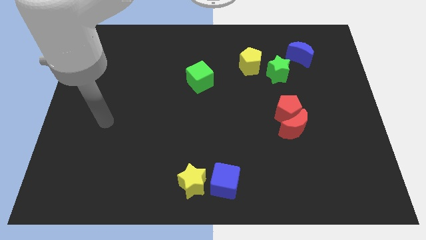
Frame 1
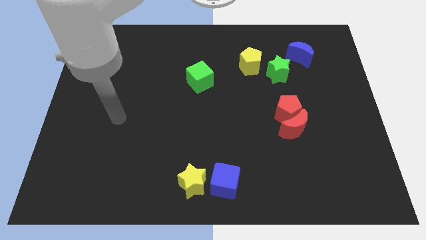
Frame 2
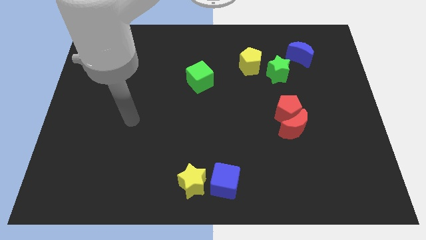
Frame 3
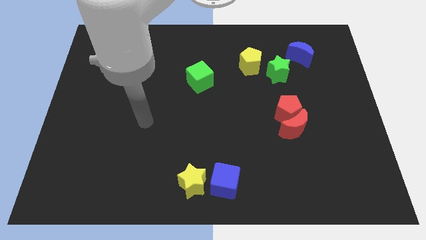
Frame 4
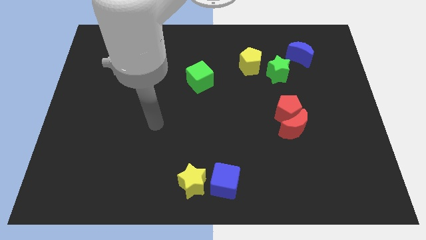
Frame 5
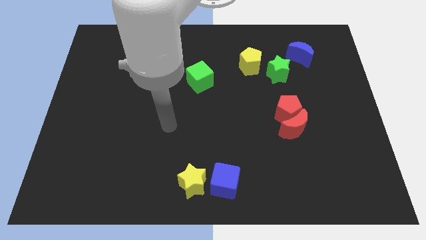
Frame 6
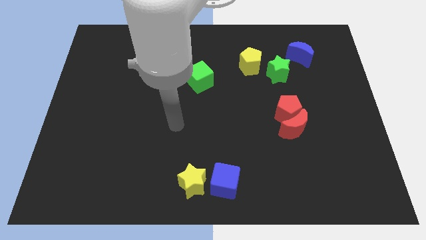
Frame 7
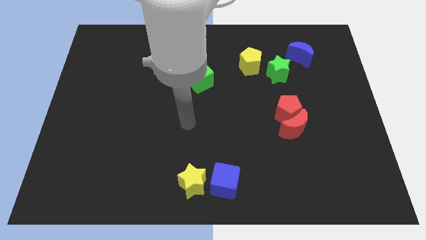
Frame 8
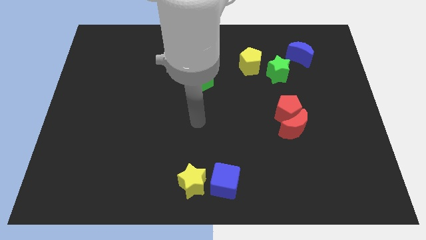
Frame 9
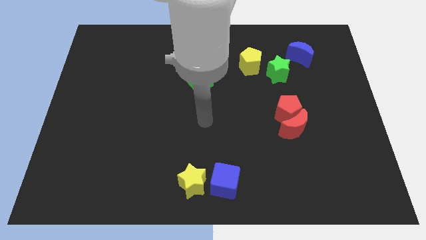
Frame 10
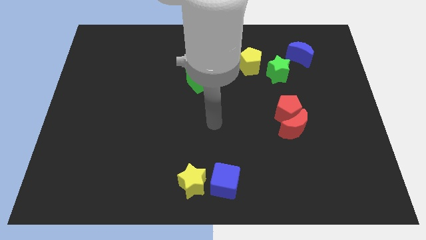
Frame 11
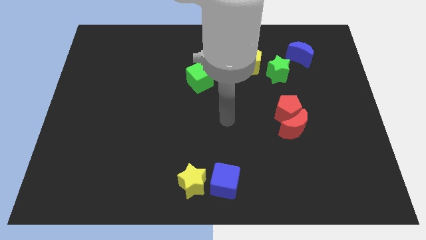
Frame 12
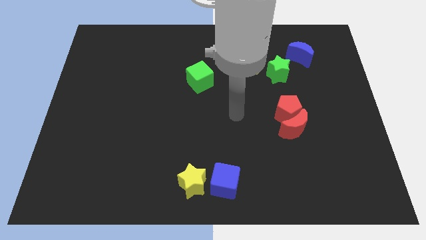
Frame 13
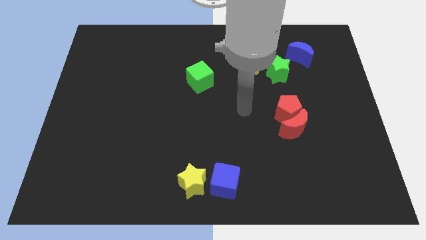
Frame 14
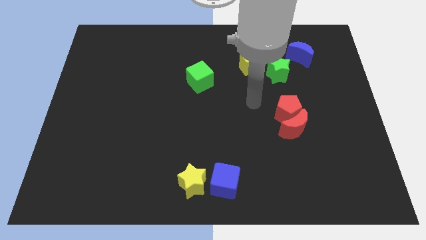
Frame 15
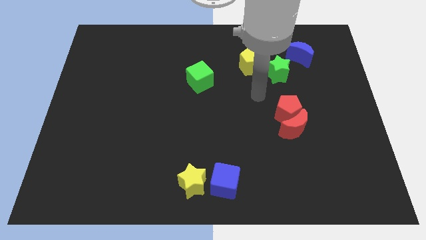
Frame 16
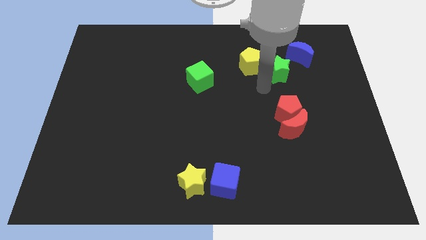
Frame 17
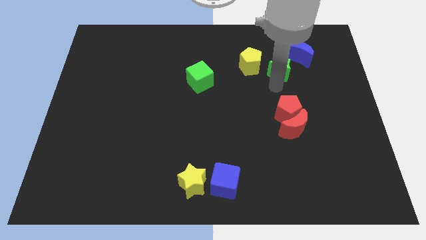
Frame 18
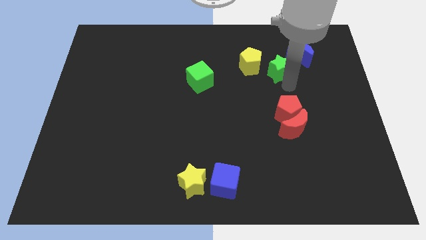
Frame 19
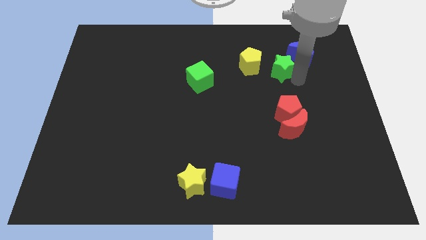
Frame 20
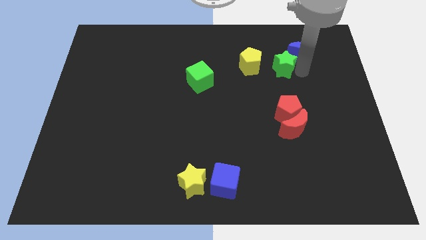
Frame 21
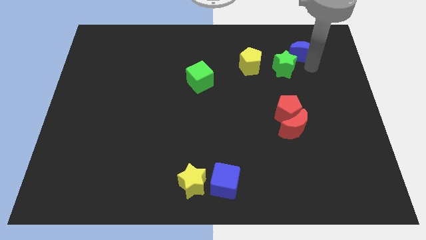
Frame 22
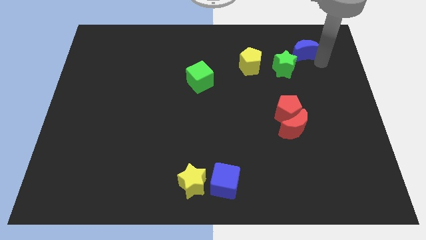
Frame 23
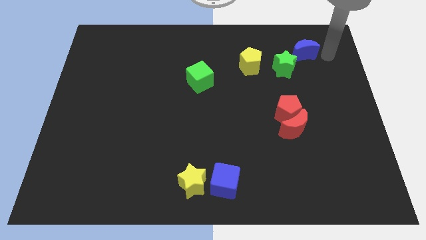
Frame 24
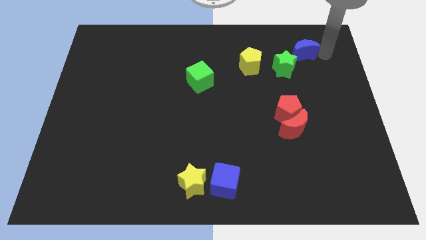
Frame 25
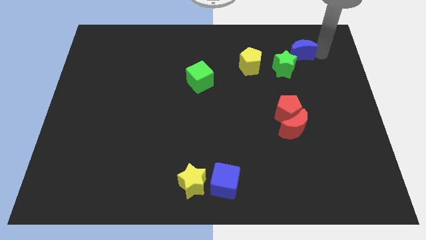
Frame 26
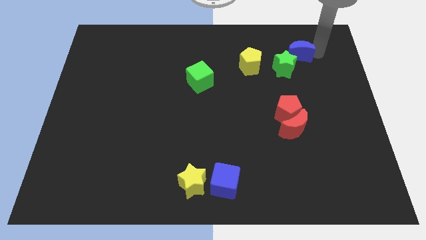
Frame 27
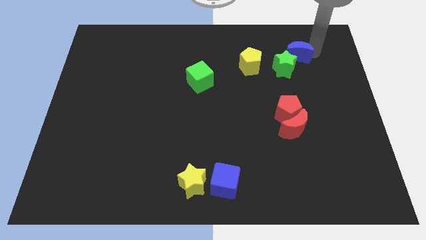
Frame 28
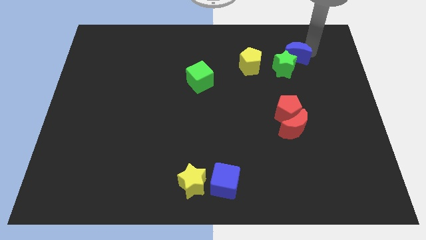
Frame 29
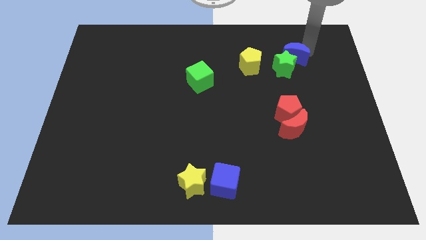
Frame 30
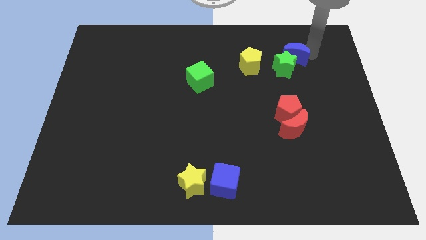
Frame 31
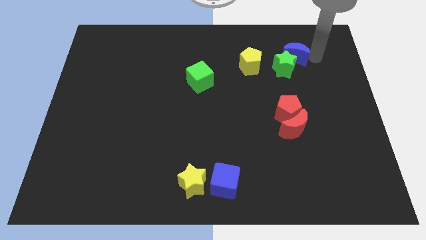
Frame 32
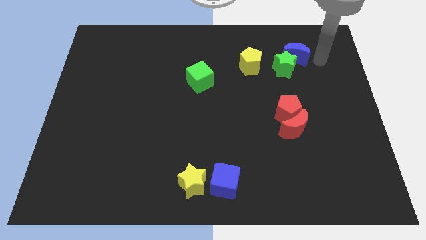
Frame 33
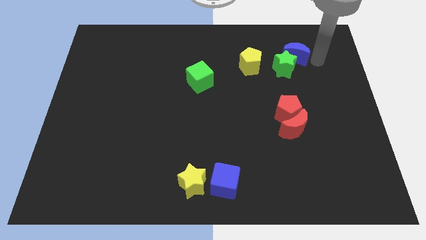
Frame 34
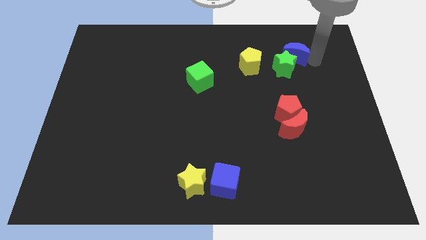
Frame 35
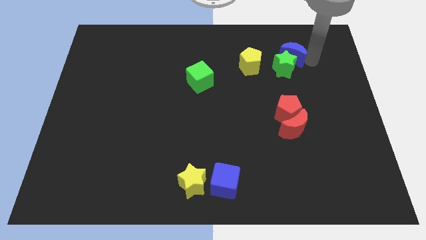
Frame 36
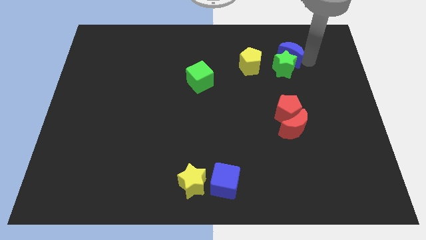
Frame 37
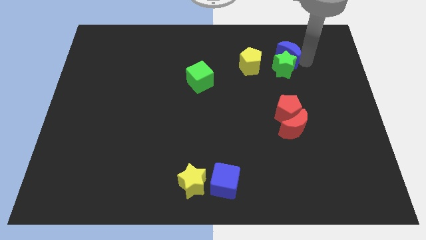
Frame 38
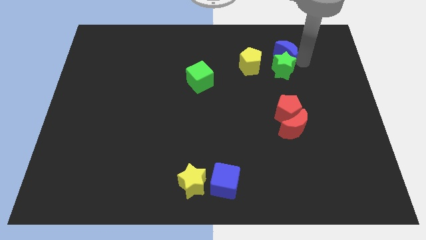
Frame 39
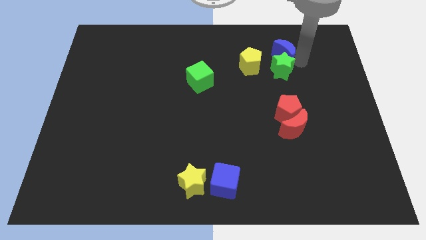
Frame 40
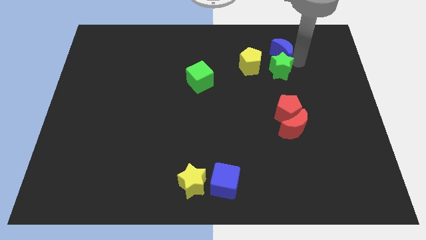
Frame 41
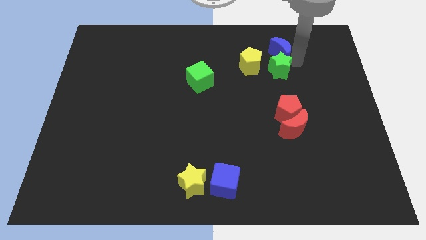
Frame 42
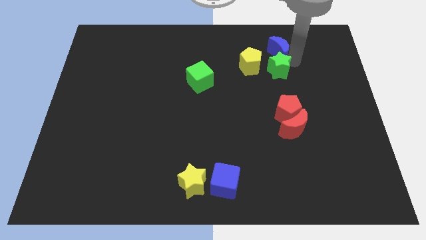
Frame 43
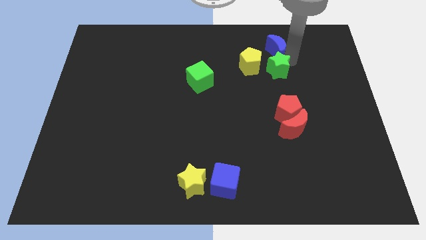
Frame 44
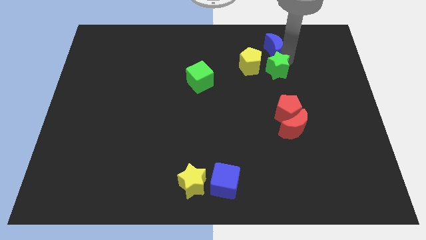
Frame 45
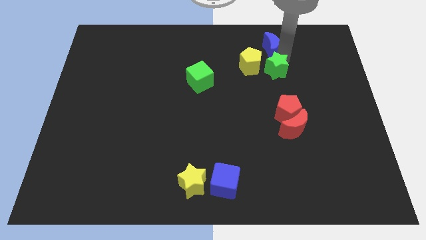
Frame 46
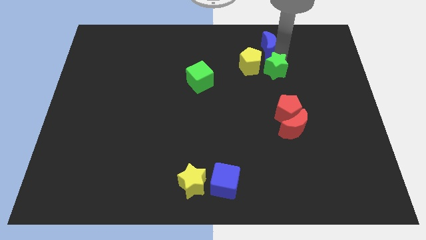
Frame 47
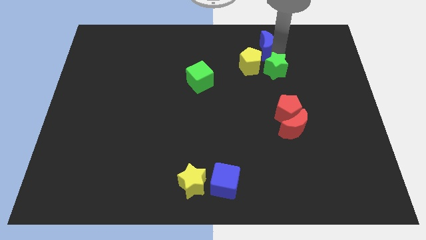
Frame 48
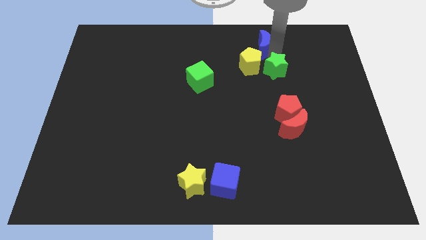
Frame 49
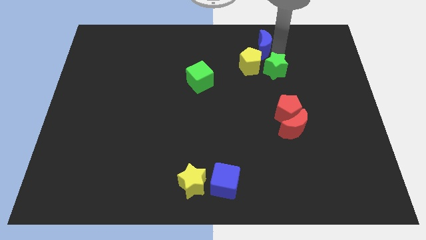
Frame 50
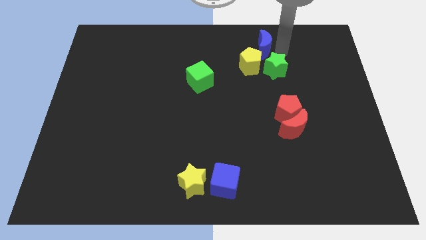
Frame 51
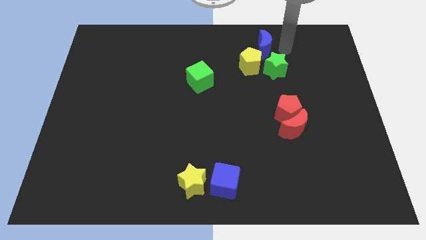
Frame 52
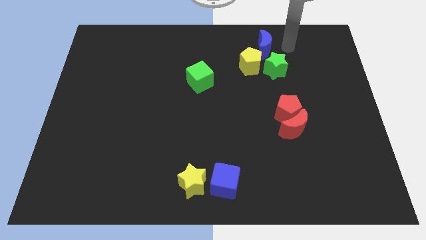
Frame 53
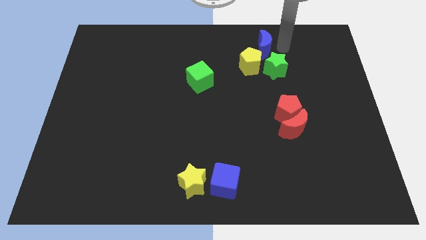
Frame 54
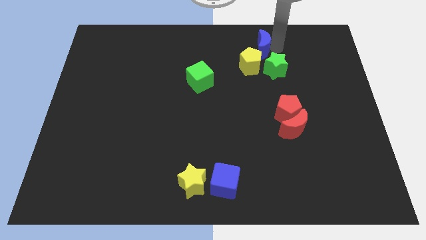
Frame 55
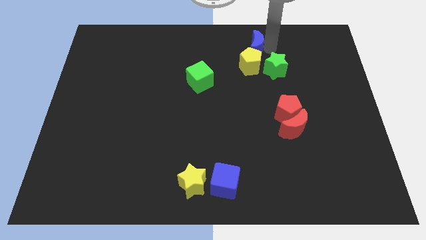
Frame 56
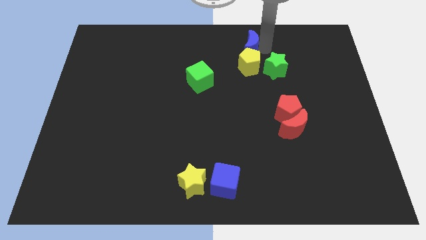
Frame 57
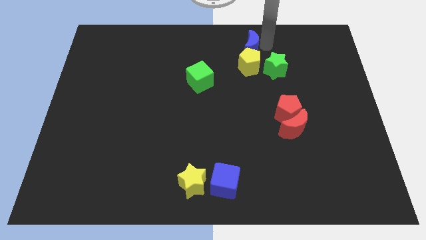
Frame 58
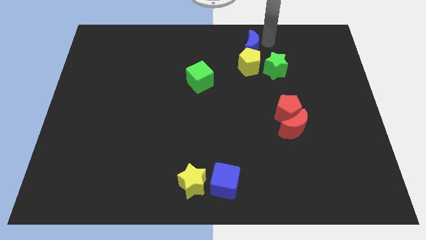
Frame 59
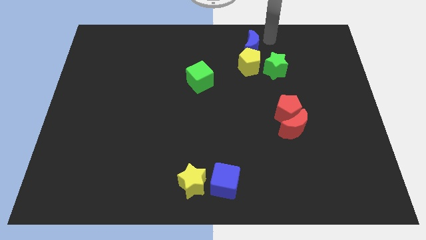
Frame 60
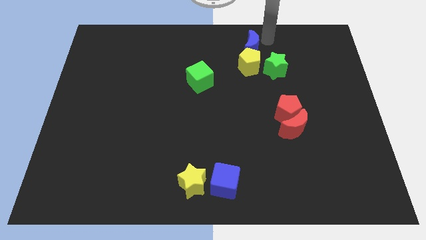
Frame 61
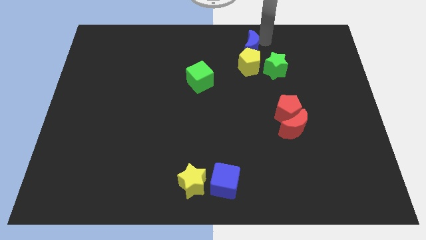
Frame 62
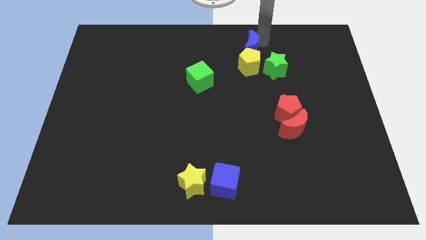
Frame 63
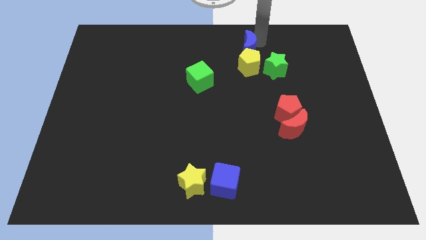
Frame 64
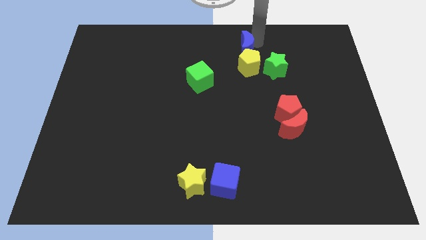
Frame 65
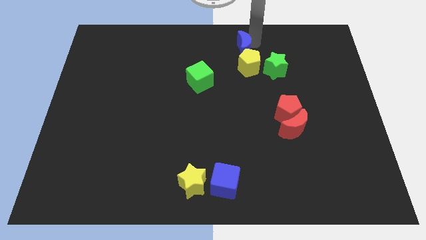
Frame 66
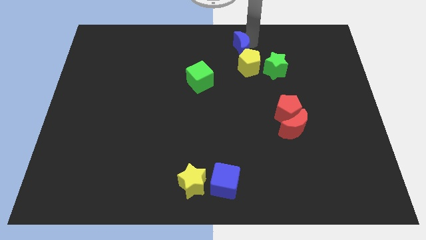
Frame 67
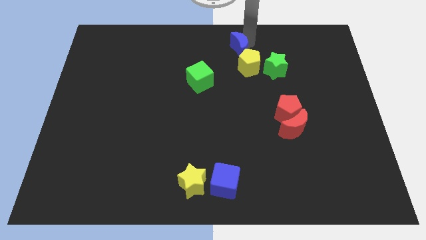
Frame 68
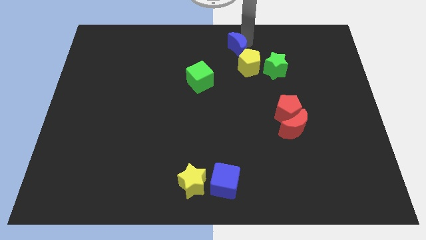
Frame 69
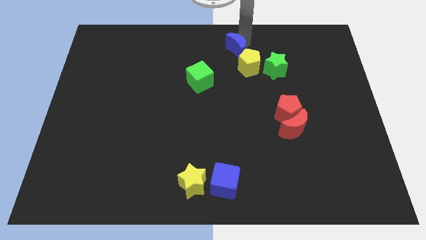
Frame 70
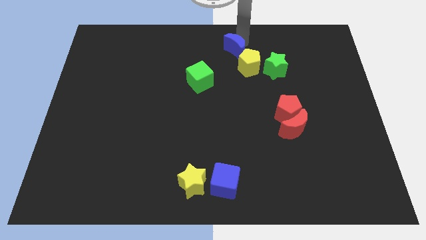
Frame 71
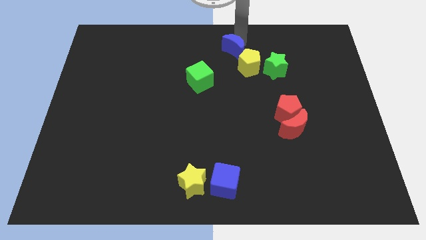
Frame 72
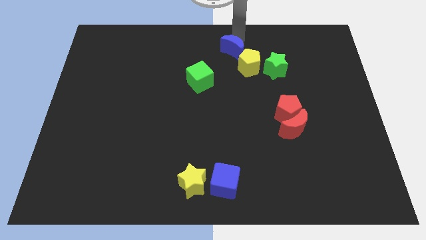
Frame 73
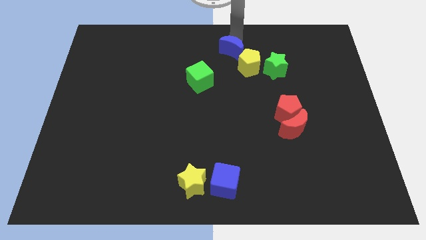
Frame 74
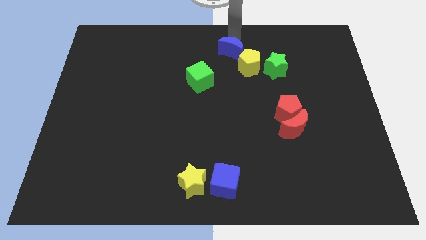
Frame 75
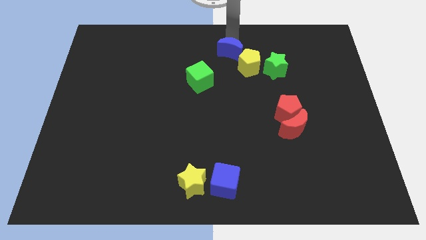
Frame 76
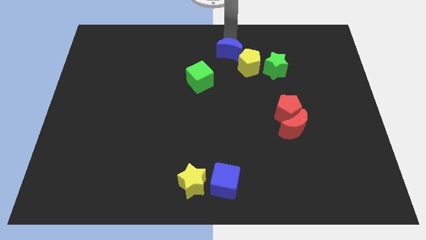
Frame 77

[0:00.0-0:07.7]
slide the blue moon left of the yellow pentagon
